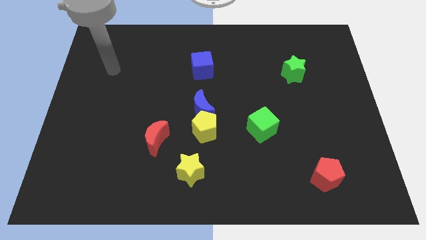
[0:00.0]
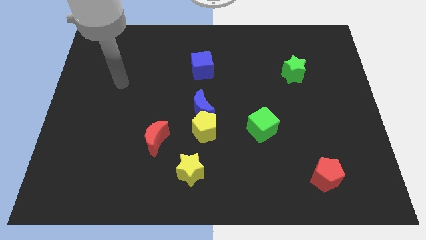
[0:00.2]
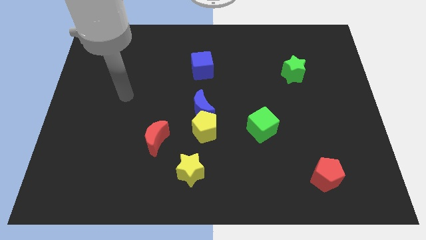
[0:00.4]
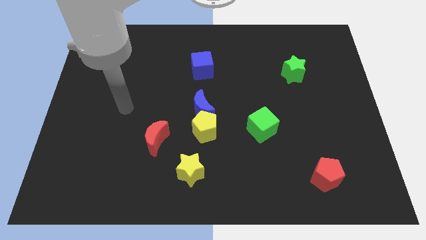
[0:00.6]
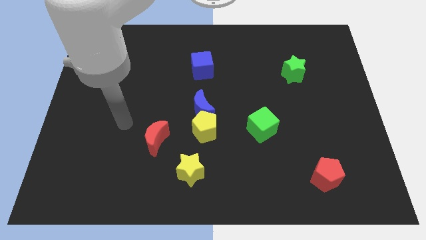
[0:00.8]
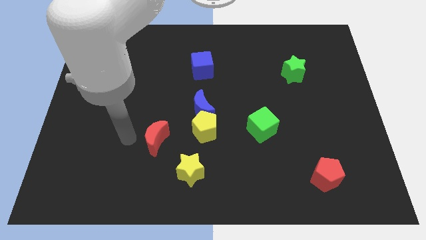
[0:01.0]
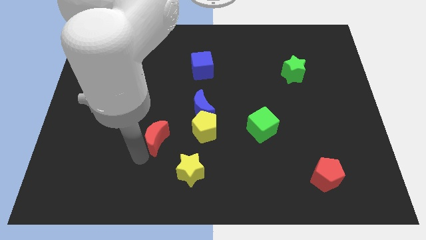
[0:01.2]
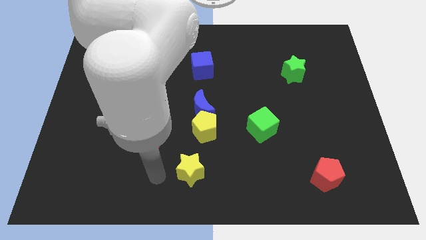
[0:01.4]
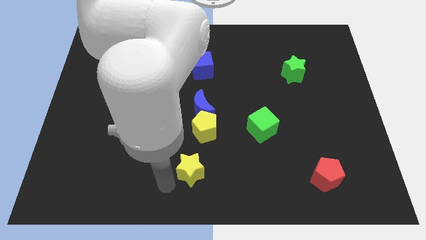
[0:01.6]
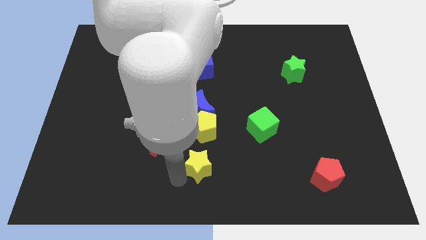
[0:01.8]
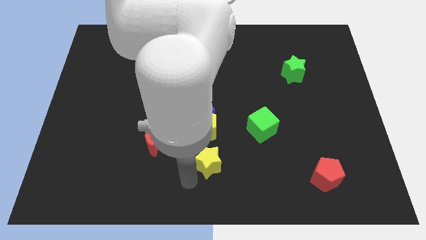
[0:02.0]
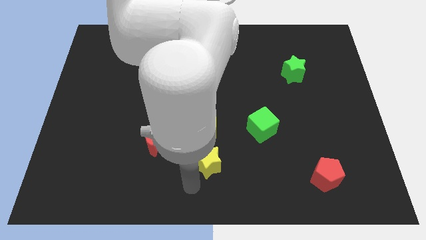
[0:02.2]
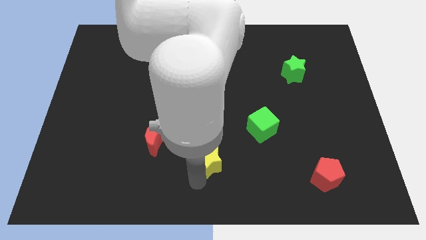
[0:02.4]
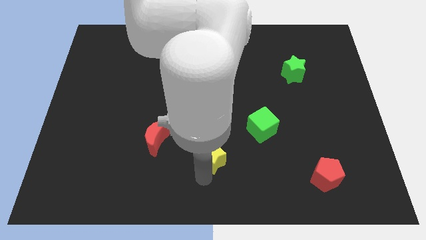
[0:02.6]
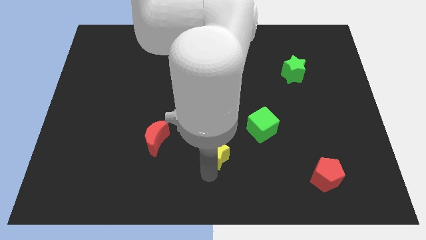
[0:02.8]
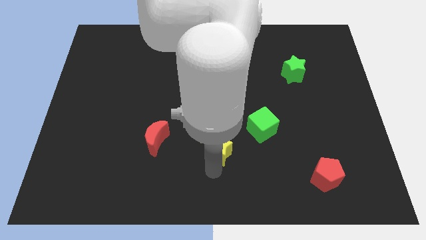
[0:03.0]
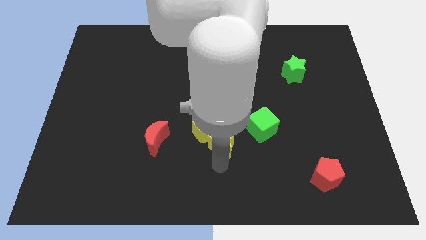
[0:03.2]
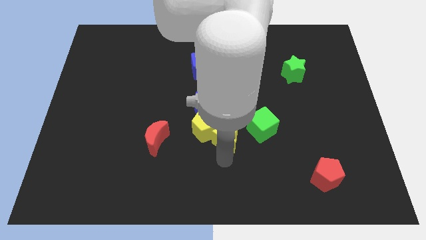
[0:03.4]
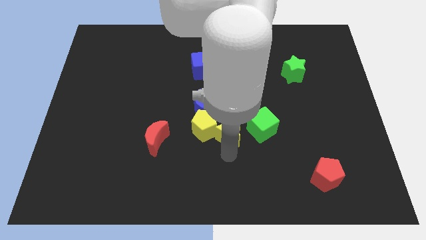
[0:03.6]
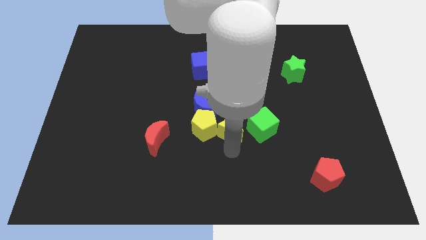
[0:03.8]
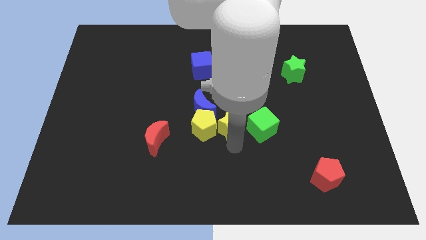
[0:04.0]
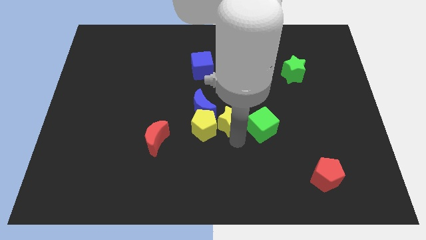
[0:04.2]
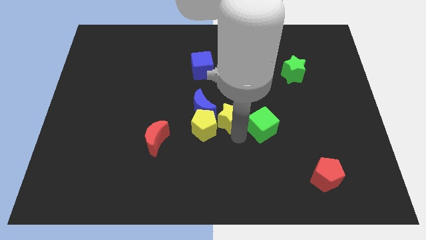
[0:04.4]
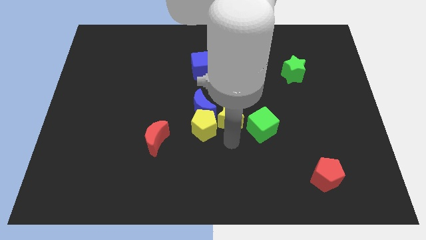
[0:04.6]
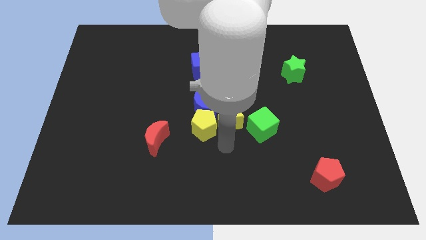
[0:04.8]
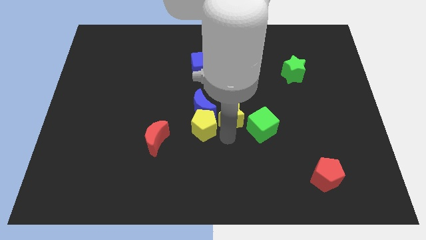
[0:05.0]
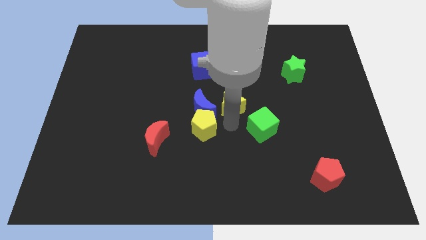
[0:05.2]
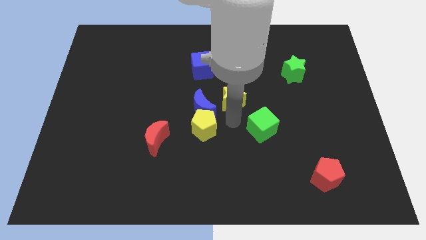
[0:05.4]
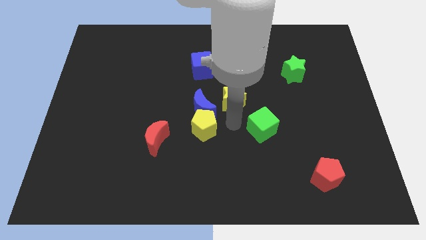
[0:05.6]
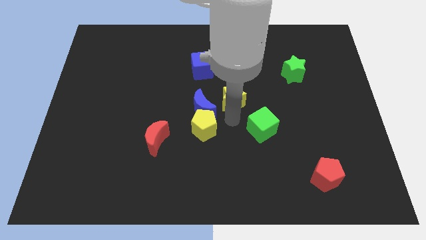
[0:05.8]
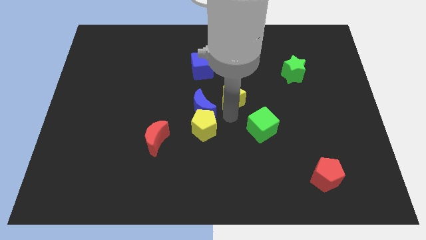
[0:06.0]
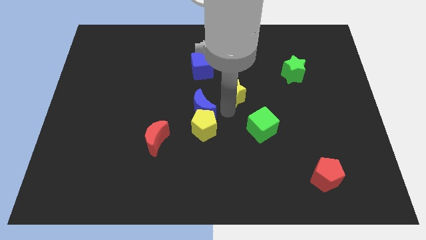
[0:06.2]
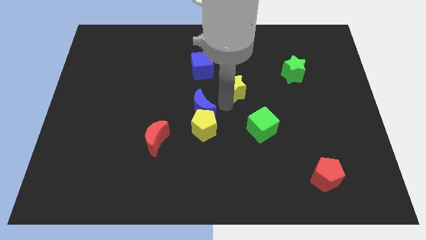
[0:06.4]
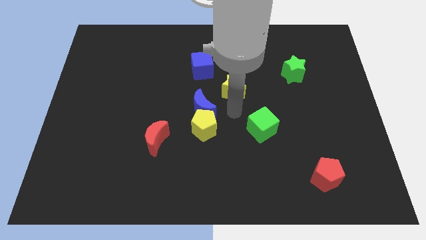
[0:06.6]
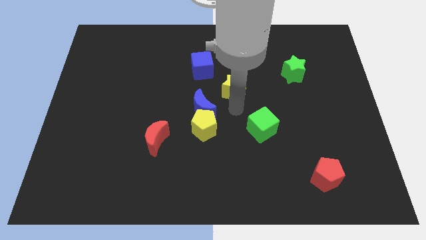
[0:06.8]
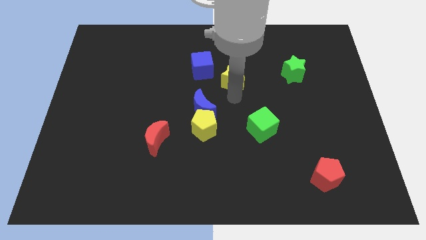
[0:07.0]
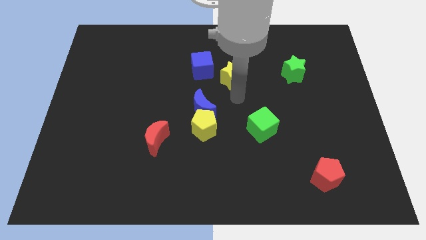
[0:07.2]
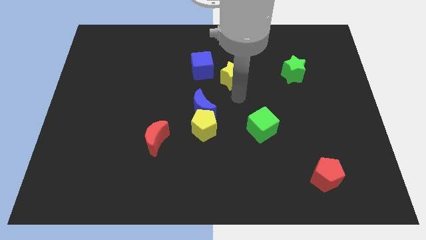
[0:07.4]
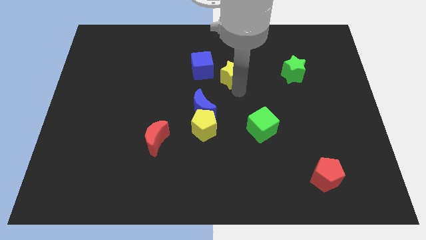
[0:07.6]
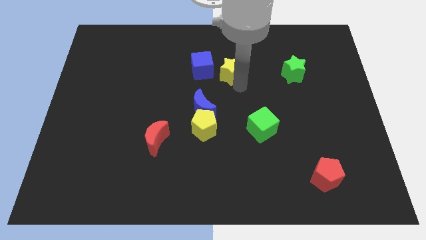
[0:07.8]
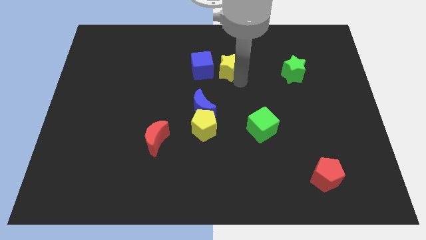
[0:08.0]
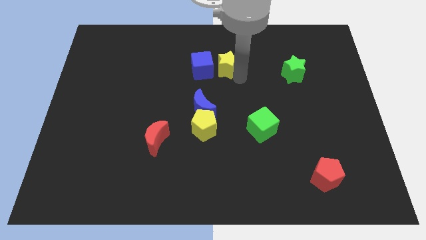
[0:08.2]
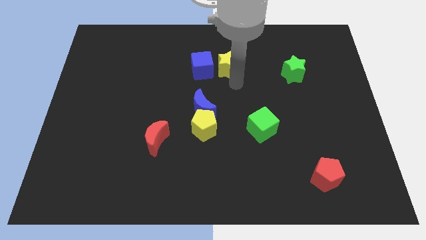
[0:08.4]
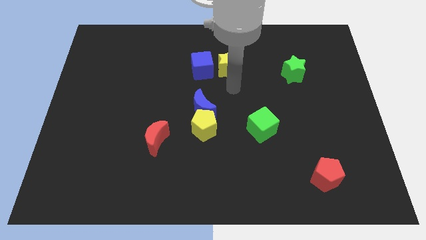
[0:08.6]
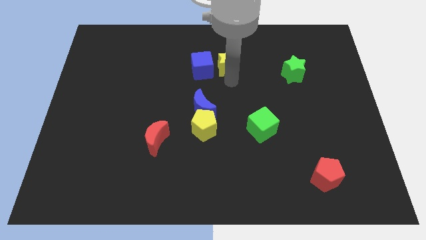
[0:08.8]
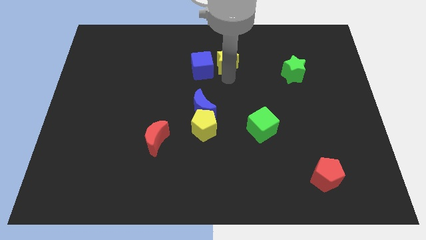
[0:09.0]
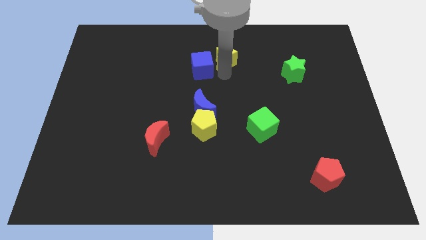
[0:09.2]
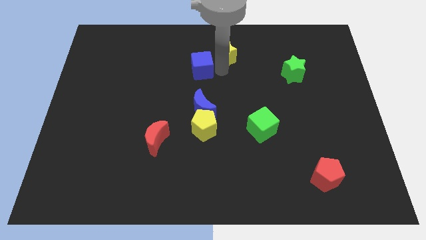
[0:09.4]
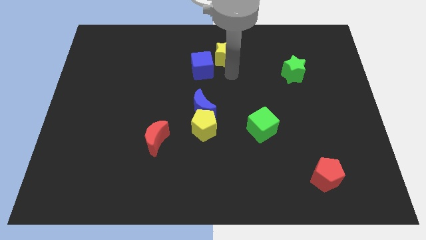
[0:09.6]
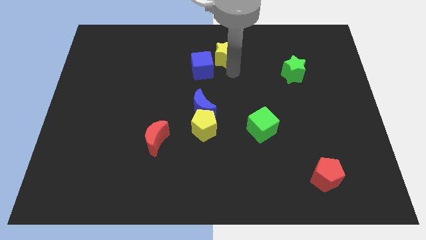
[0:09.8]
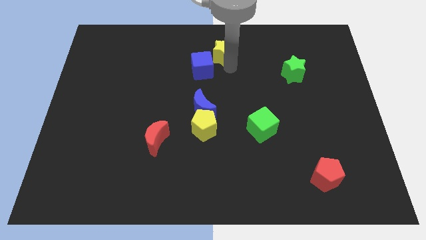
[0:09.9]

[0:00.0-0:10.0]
put the yellow star to the towards your base

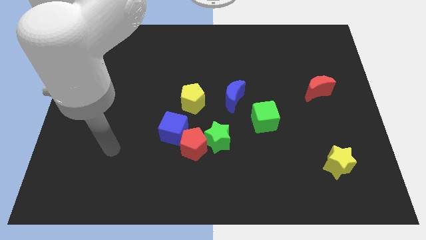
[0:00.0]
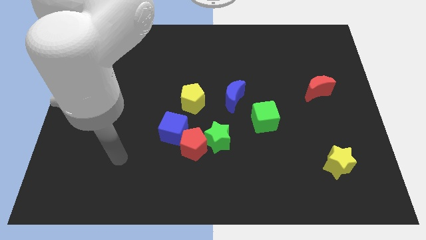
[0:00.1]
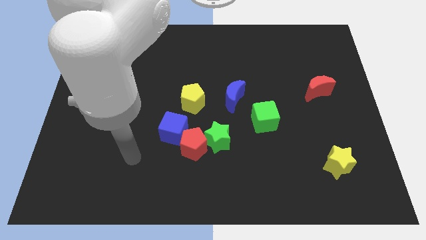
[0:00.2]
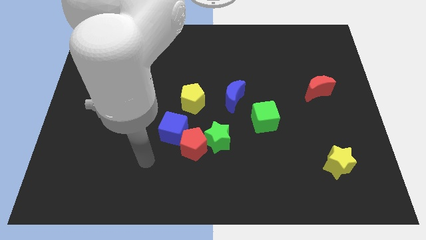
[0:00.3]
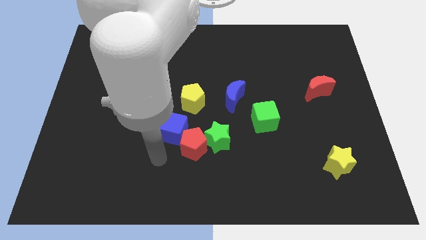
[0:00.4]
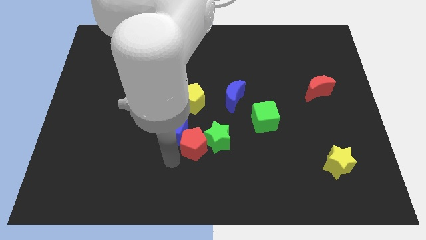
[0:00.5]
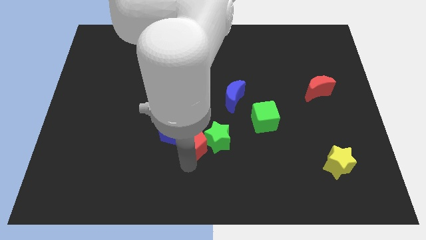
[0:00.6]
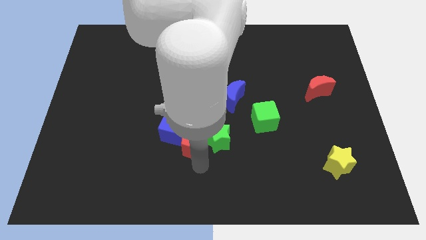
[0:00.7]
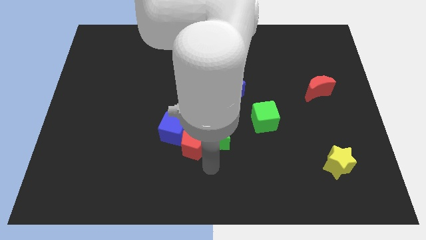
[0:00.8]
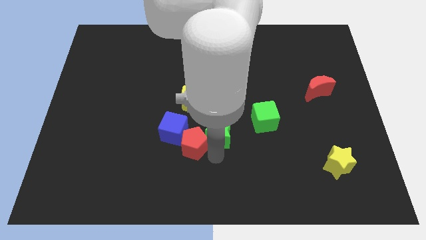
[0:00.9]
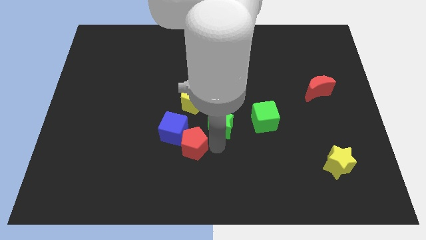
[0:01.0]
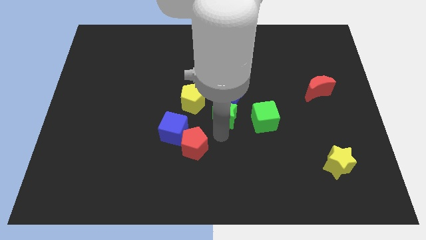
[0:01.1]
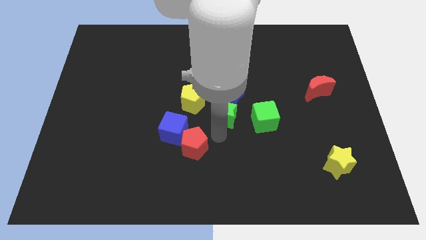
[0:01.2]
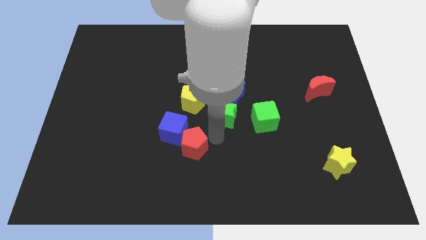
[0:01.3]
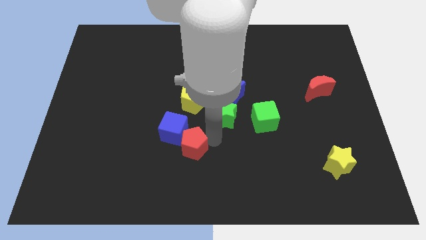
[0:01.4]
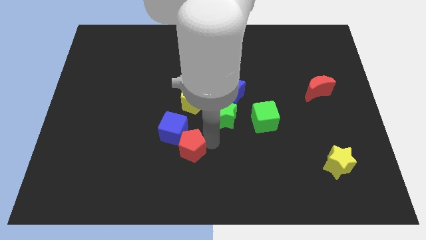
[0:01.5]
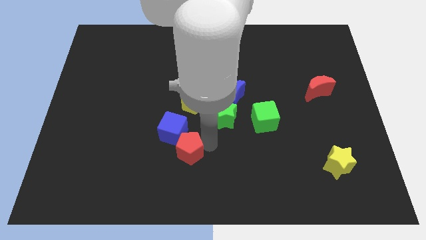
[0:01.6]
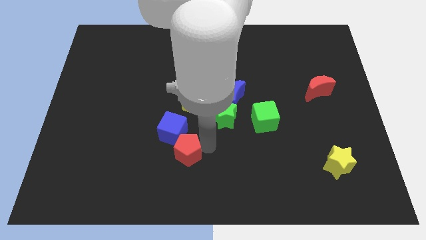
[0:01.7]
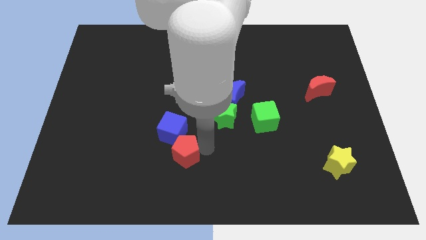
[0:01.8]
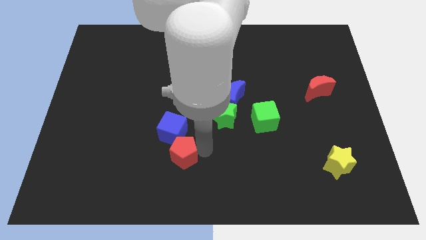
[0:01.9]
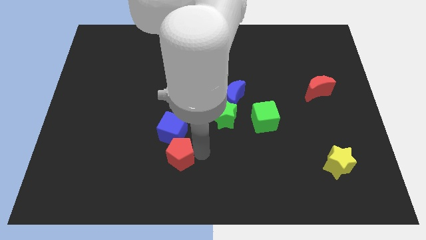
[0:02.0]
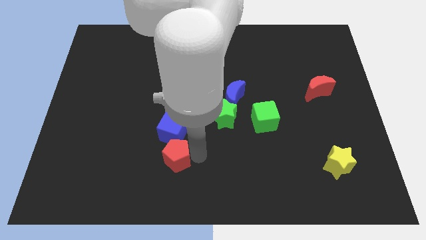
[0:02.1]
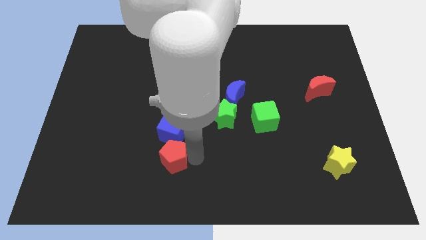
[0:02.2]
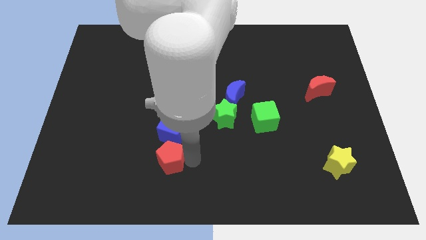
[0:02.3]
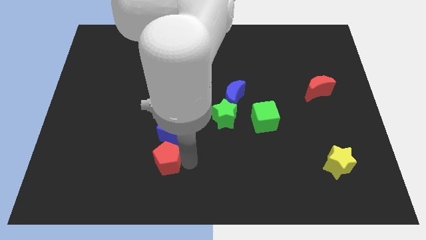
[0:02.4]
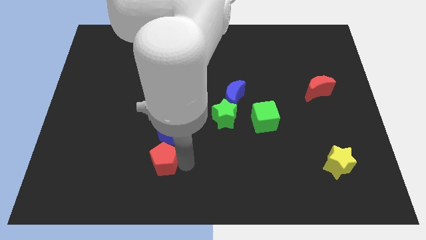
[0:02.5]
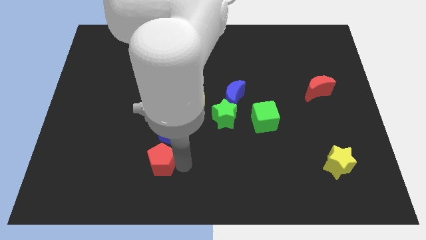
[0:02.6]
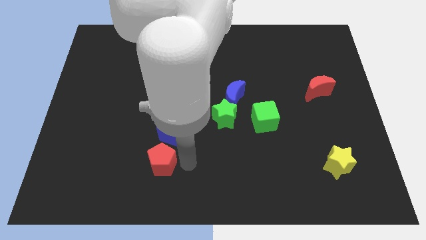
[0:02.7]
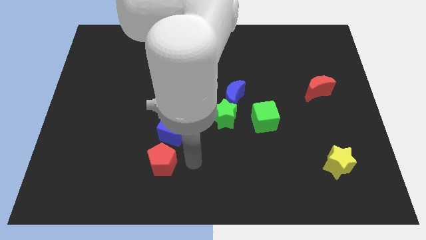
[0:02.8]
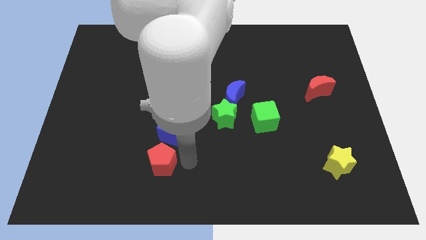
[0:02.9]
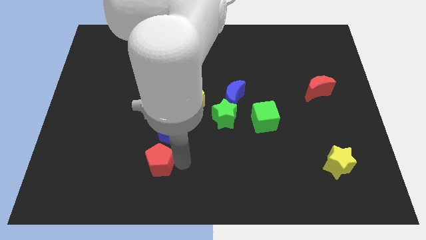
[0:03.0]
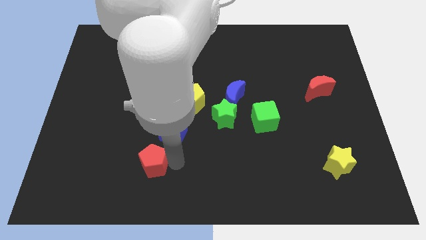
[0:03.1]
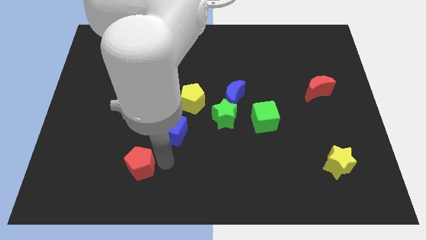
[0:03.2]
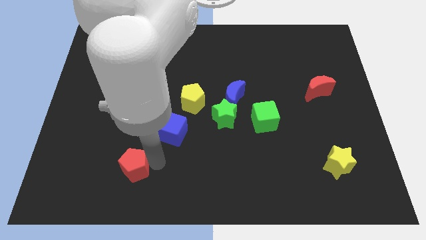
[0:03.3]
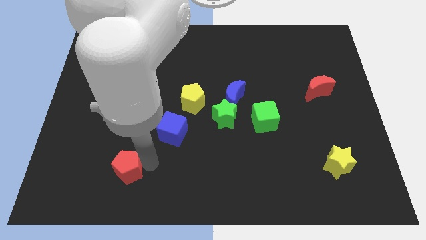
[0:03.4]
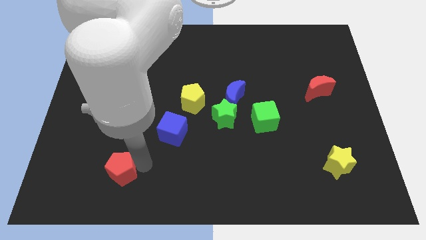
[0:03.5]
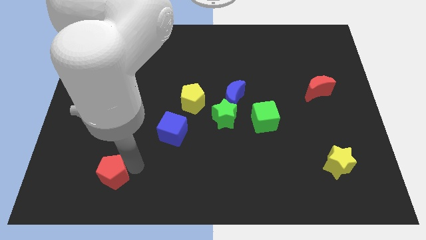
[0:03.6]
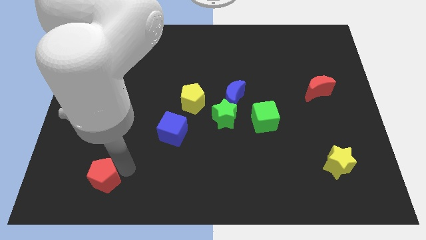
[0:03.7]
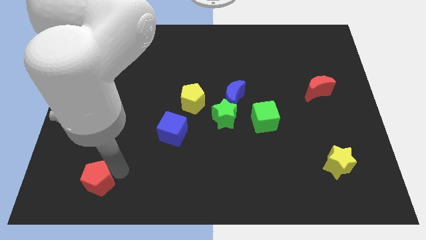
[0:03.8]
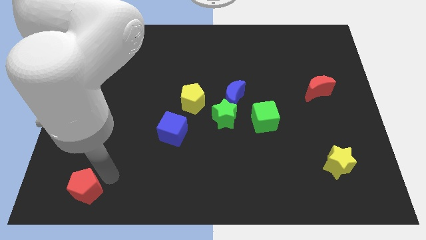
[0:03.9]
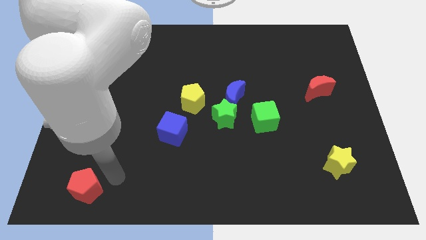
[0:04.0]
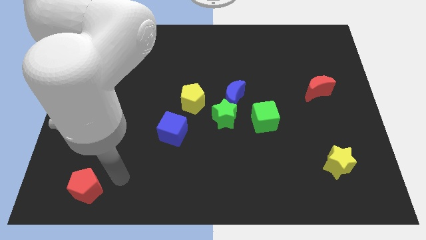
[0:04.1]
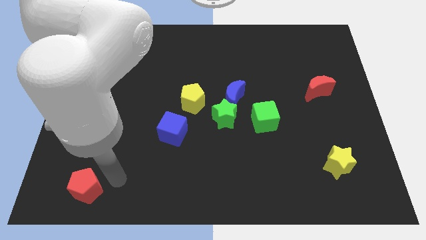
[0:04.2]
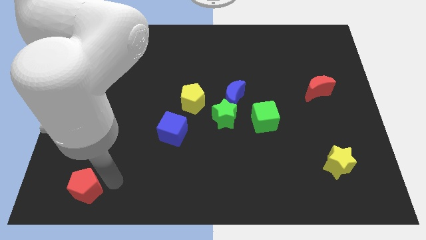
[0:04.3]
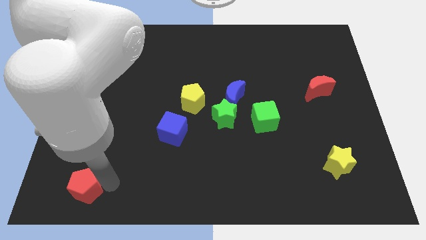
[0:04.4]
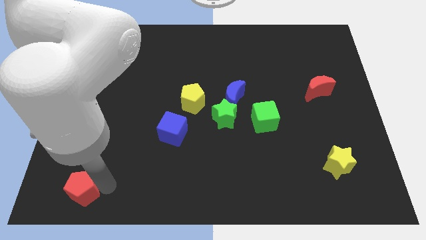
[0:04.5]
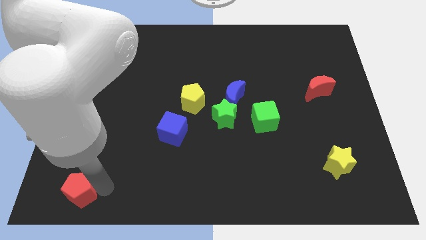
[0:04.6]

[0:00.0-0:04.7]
push the red pentagon to the bottom left of the board
